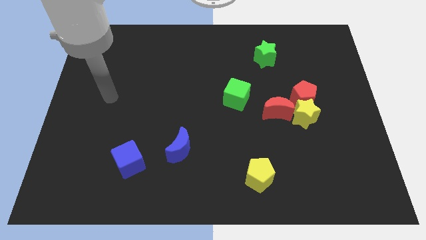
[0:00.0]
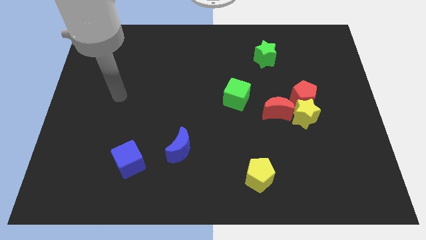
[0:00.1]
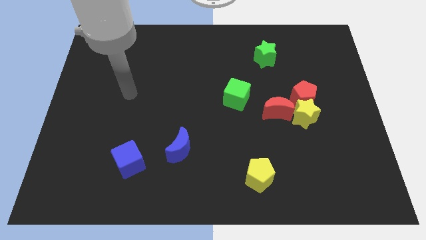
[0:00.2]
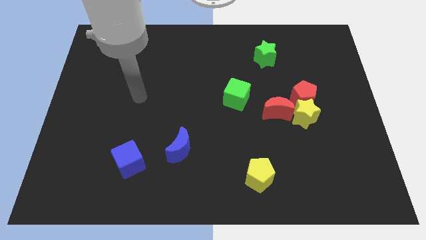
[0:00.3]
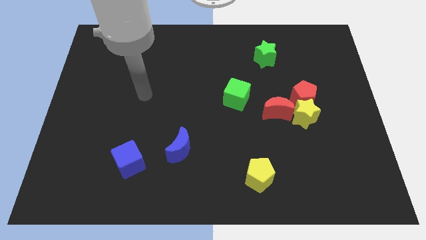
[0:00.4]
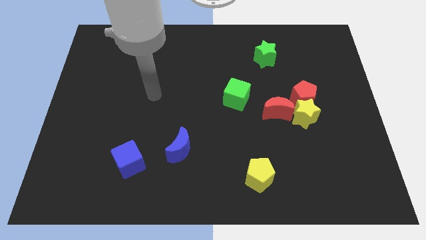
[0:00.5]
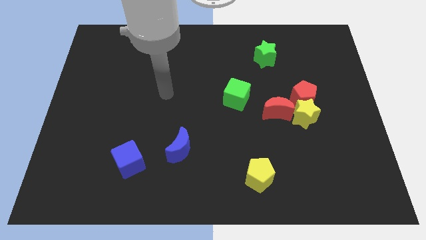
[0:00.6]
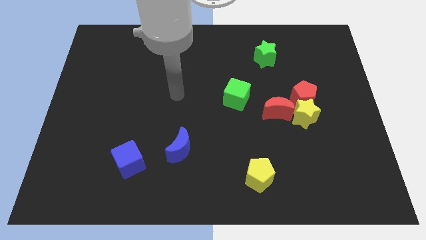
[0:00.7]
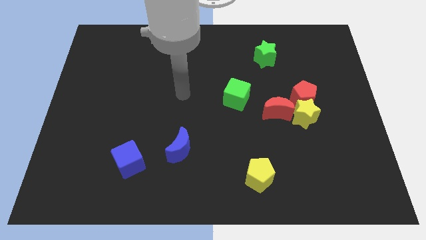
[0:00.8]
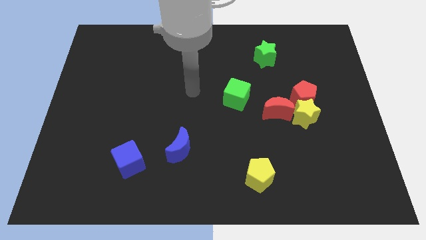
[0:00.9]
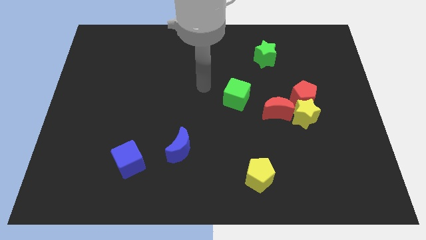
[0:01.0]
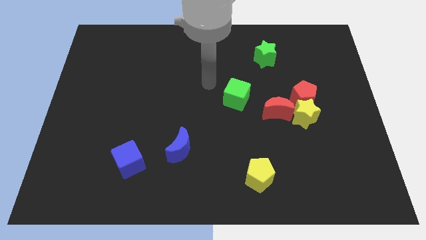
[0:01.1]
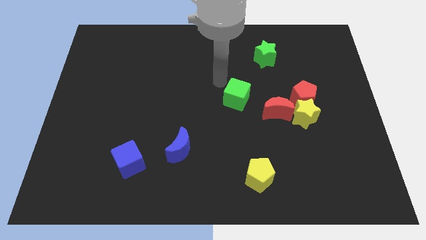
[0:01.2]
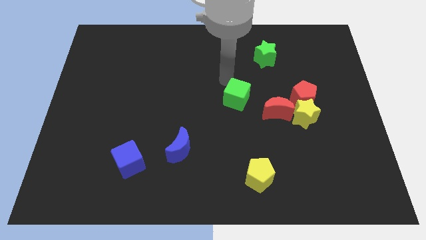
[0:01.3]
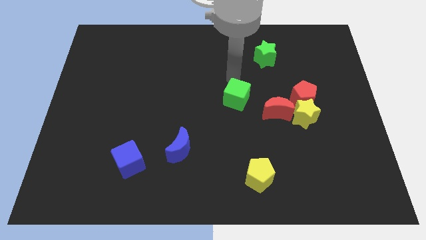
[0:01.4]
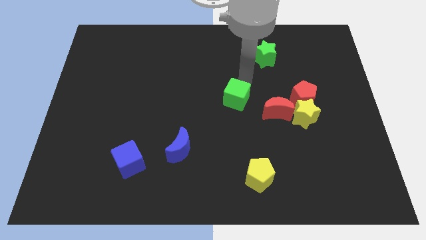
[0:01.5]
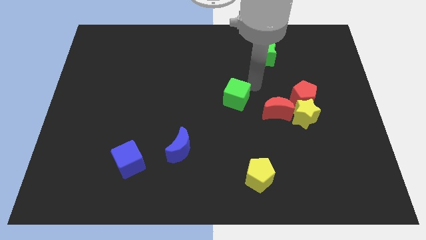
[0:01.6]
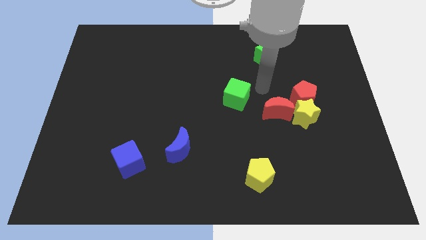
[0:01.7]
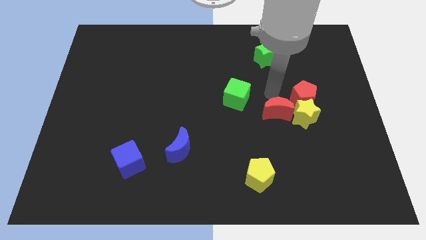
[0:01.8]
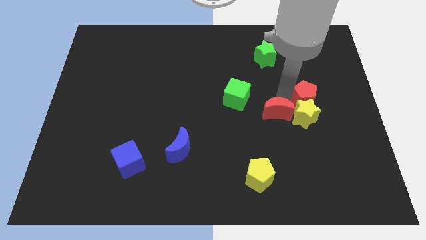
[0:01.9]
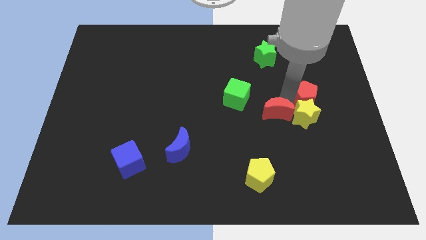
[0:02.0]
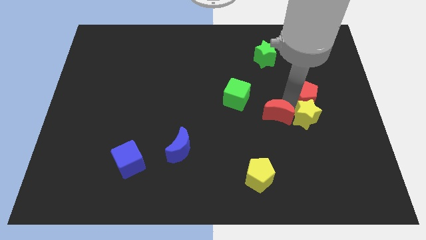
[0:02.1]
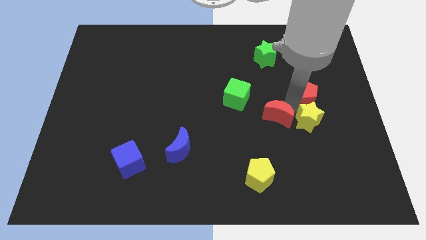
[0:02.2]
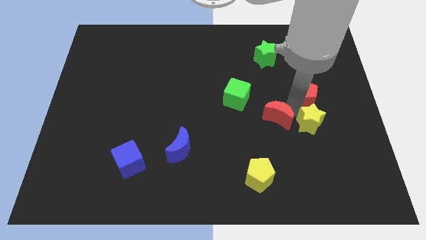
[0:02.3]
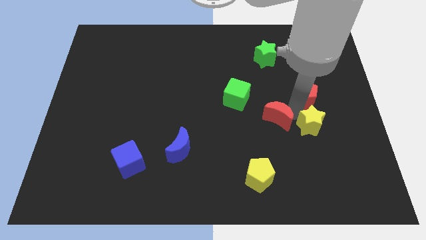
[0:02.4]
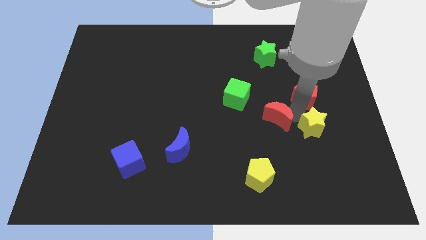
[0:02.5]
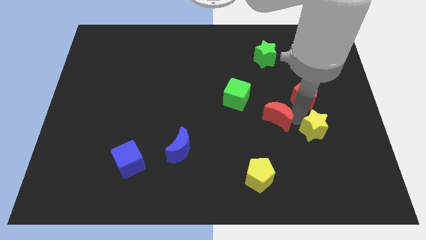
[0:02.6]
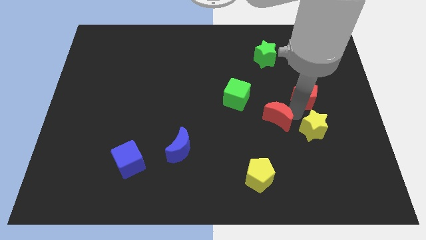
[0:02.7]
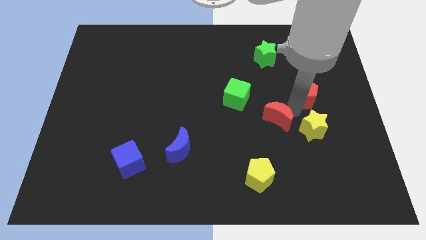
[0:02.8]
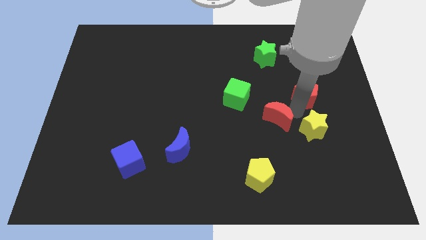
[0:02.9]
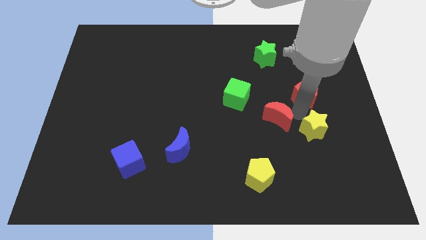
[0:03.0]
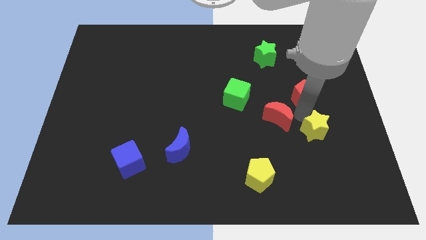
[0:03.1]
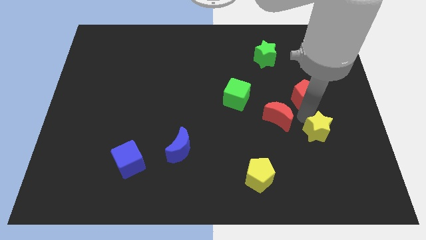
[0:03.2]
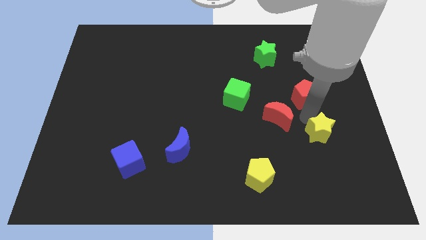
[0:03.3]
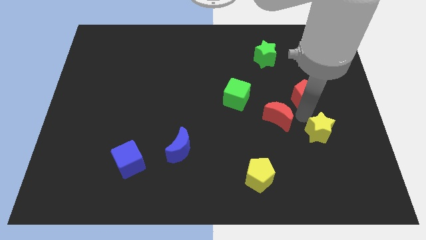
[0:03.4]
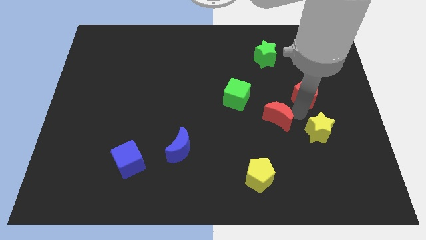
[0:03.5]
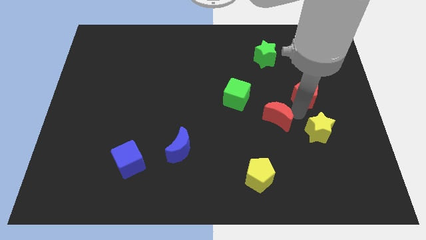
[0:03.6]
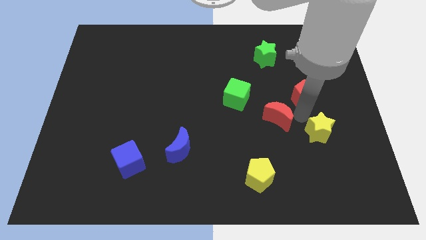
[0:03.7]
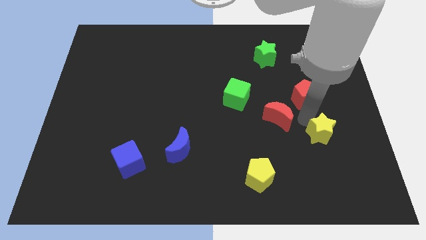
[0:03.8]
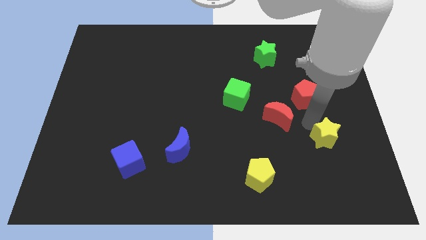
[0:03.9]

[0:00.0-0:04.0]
separate the yellow star from the red pentagon and red moon

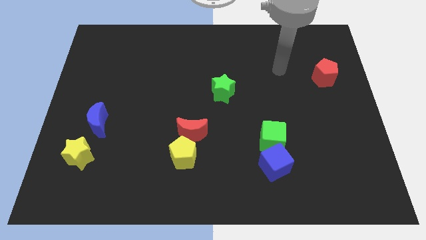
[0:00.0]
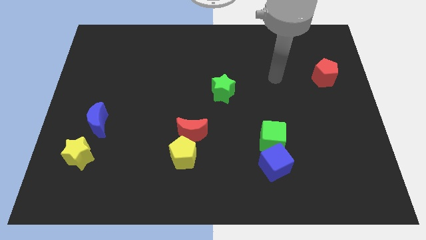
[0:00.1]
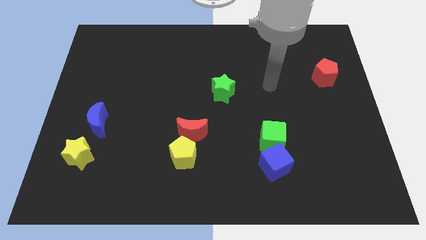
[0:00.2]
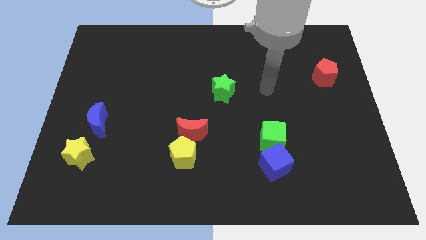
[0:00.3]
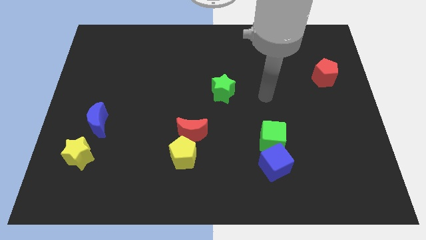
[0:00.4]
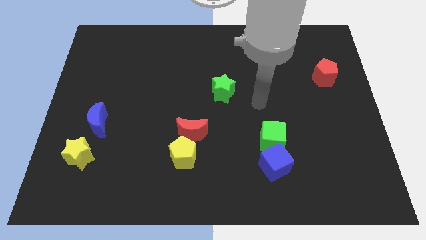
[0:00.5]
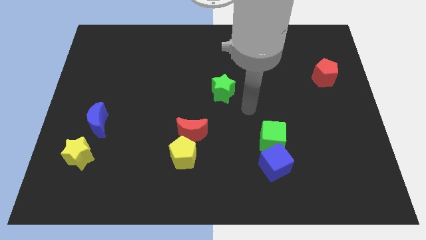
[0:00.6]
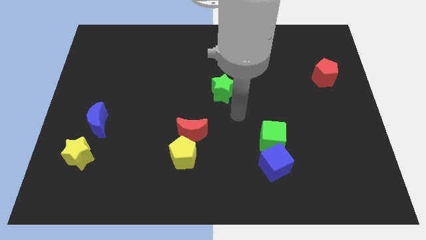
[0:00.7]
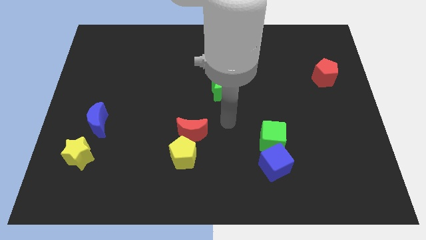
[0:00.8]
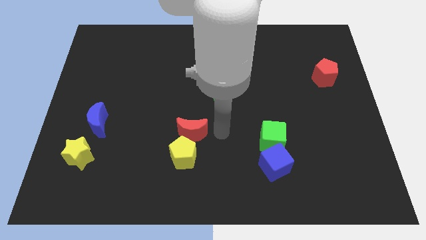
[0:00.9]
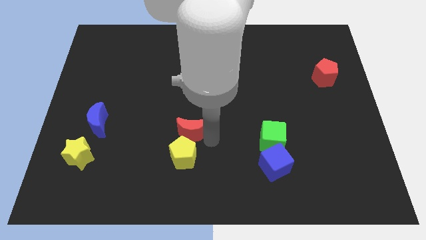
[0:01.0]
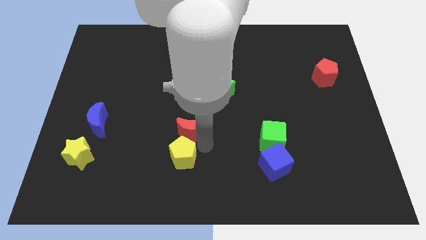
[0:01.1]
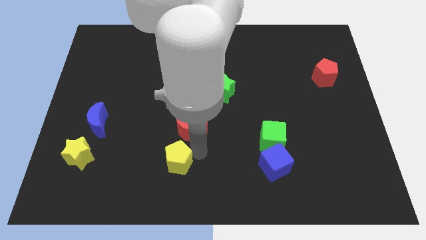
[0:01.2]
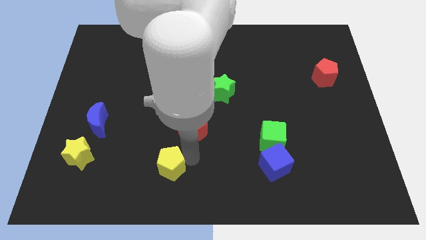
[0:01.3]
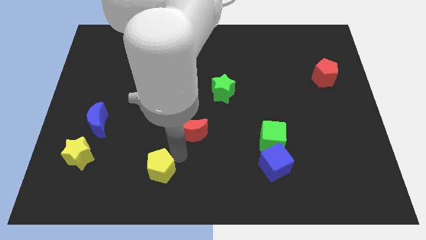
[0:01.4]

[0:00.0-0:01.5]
move the red moon away from the yellow pentagon

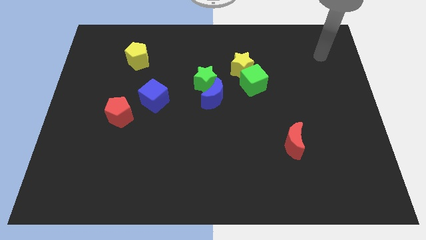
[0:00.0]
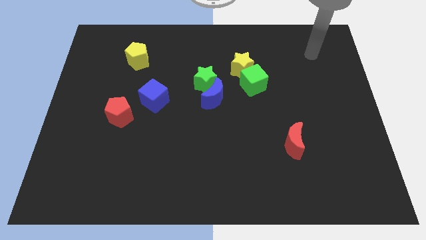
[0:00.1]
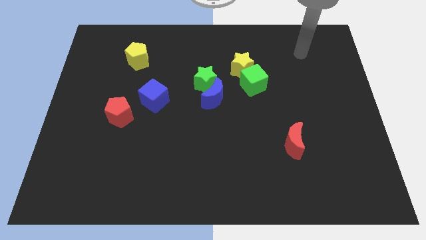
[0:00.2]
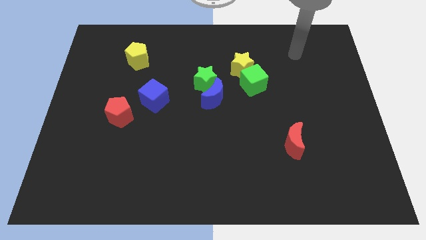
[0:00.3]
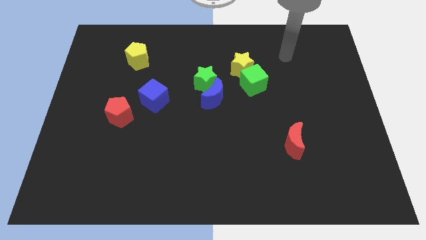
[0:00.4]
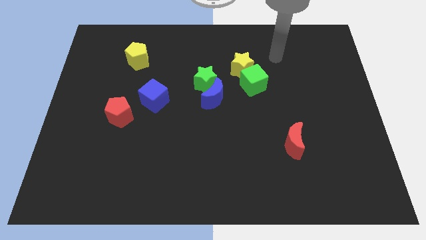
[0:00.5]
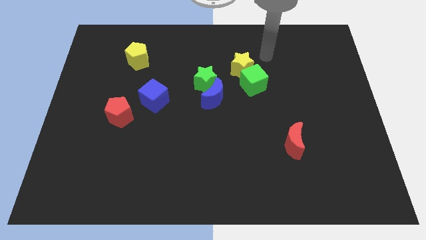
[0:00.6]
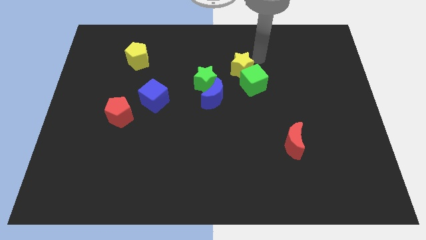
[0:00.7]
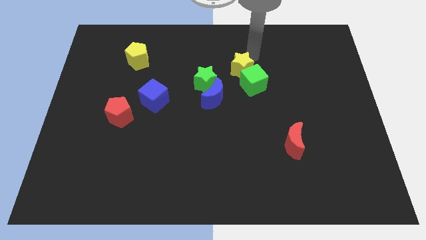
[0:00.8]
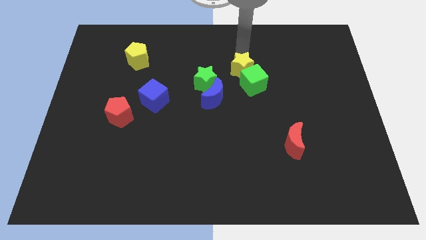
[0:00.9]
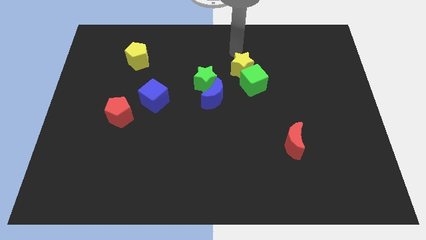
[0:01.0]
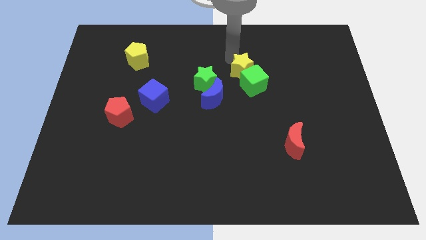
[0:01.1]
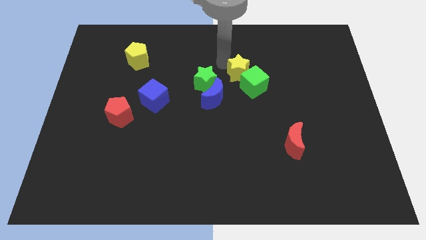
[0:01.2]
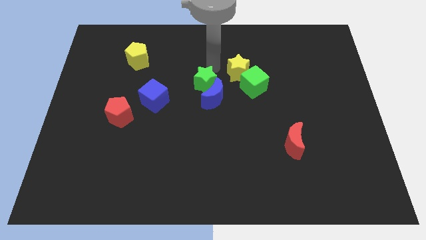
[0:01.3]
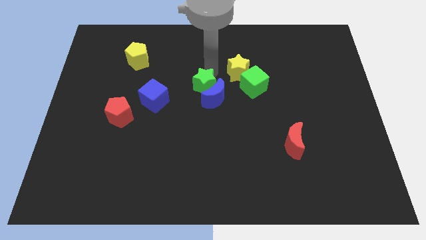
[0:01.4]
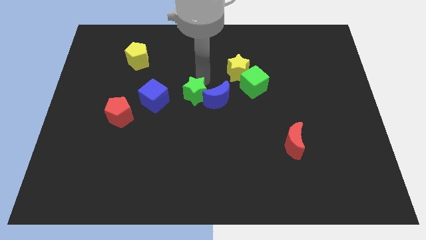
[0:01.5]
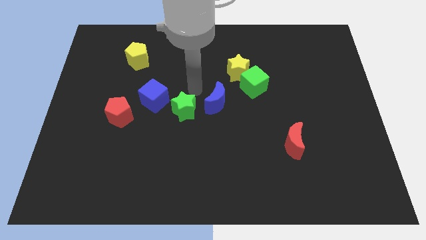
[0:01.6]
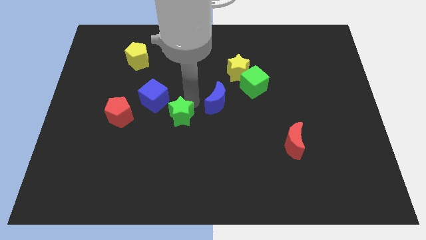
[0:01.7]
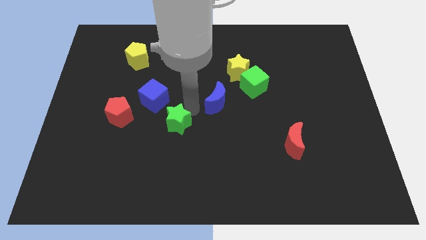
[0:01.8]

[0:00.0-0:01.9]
move the blue moon away from the green star

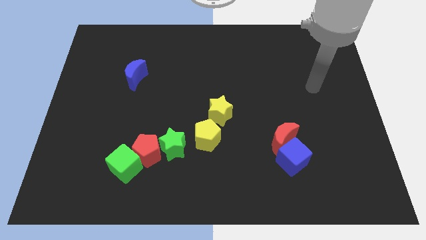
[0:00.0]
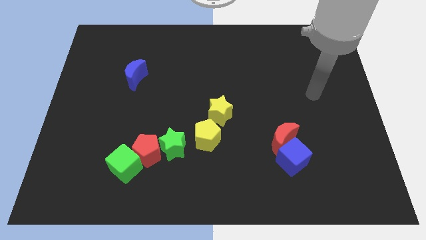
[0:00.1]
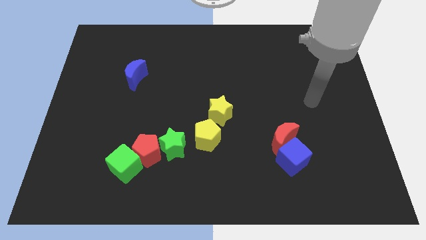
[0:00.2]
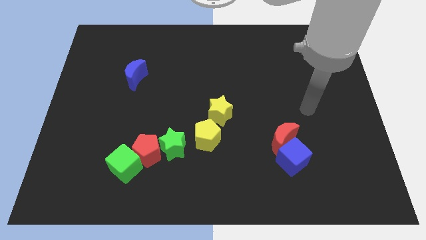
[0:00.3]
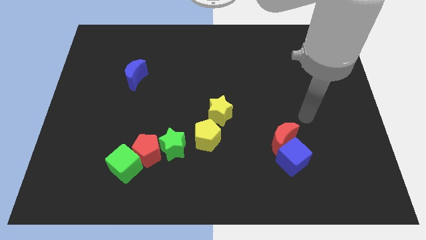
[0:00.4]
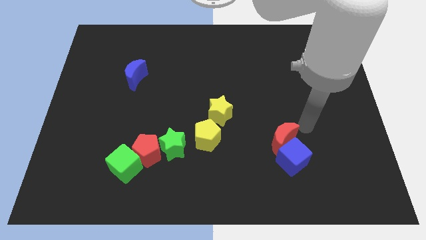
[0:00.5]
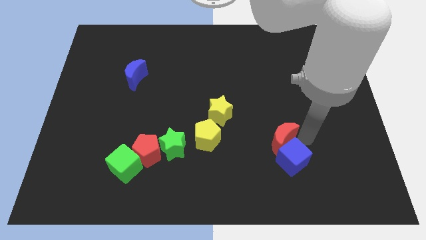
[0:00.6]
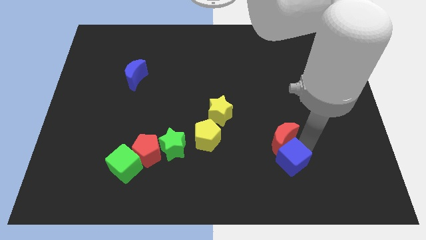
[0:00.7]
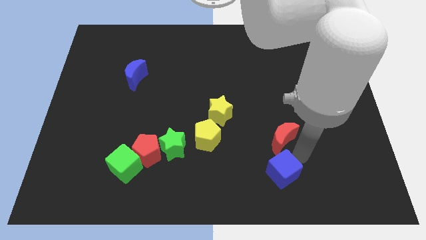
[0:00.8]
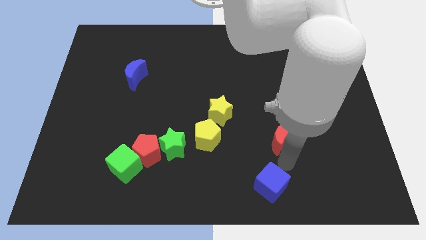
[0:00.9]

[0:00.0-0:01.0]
separate the red moon from the blue cube

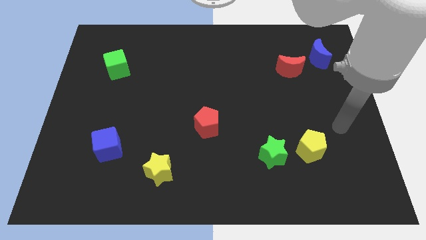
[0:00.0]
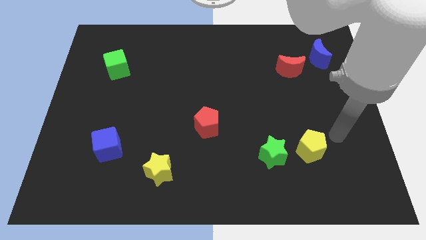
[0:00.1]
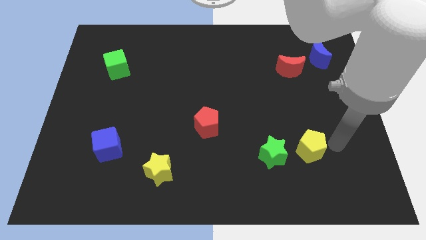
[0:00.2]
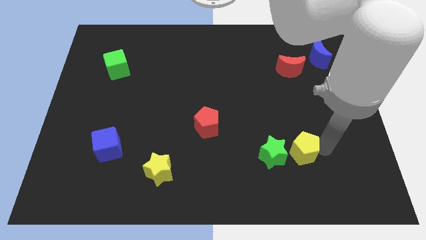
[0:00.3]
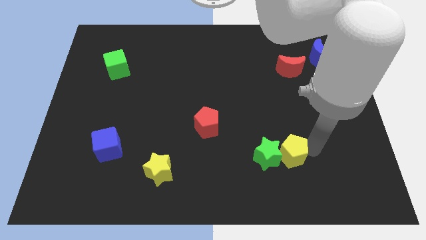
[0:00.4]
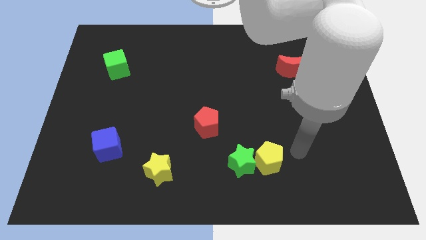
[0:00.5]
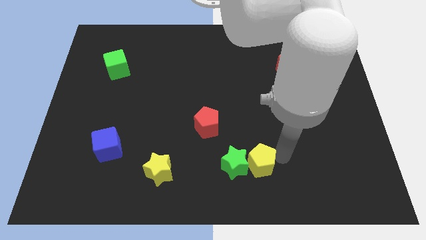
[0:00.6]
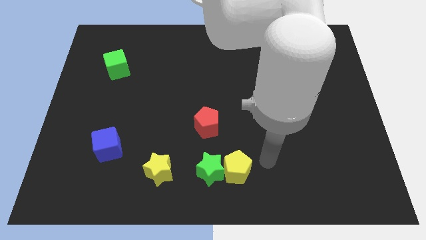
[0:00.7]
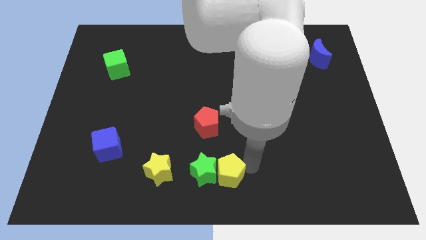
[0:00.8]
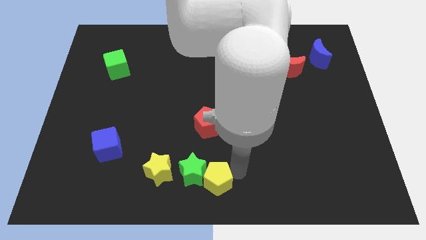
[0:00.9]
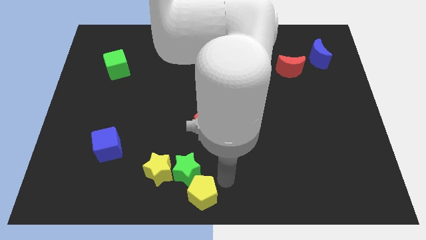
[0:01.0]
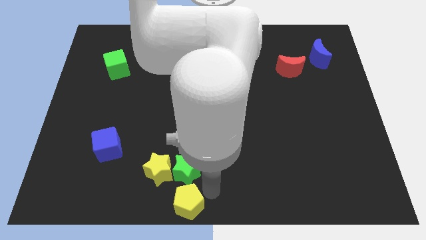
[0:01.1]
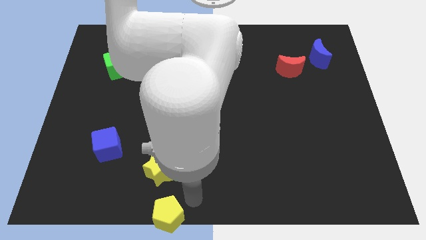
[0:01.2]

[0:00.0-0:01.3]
move the green star away from the yellow pentagon
